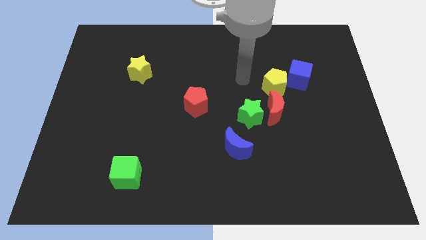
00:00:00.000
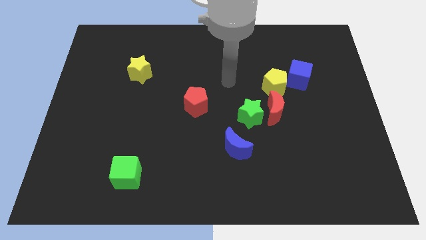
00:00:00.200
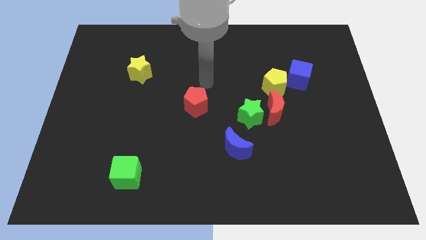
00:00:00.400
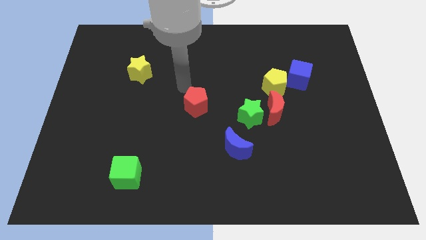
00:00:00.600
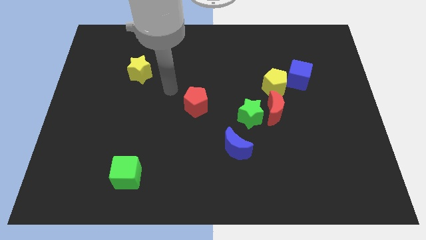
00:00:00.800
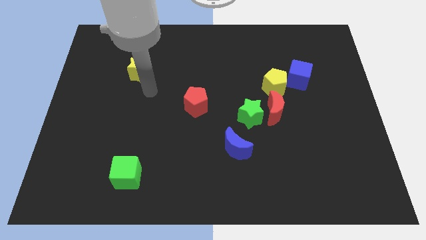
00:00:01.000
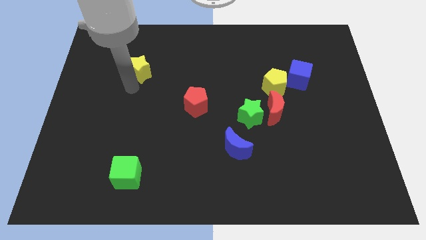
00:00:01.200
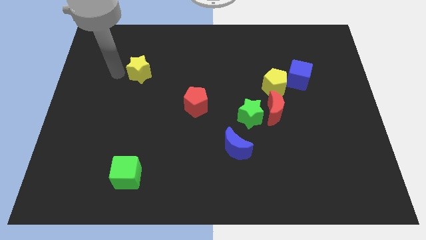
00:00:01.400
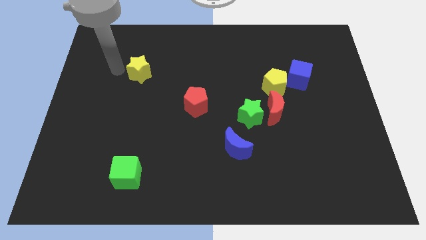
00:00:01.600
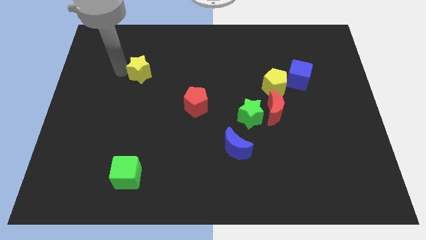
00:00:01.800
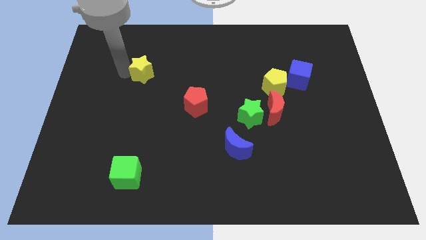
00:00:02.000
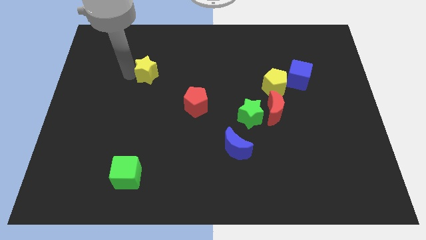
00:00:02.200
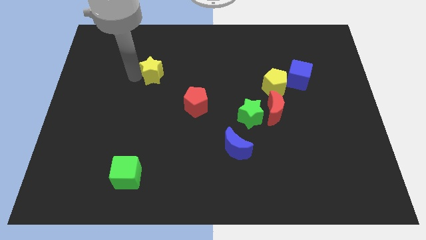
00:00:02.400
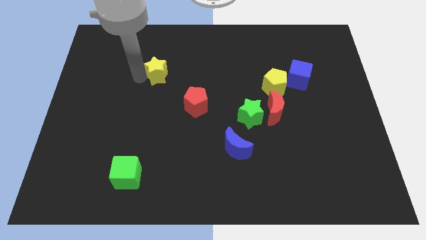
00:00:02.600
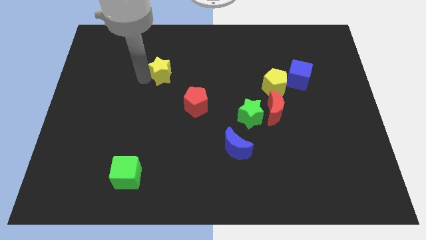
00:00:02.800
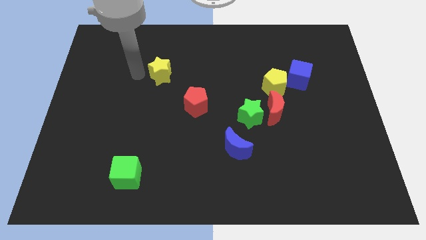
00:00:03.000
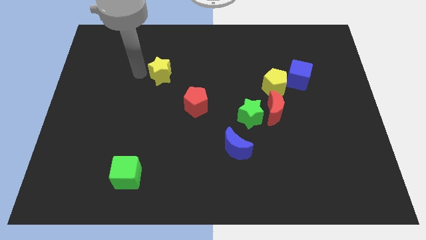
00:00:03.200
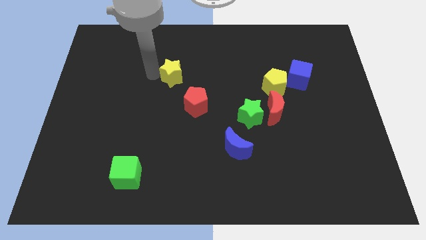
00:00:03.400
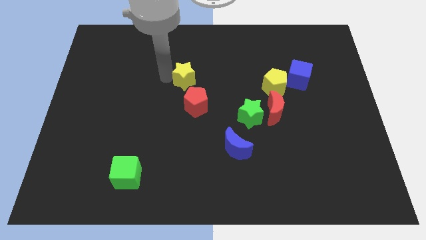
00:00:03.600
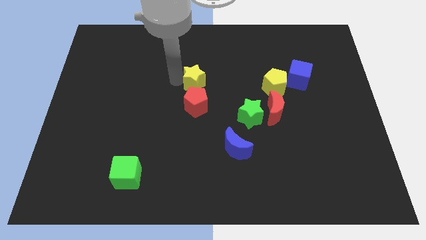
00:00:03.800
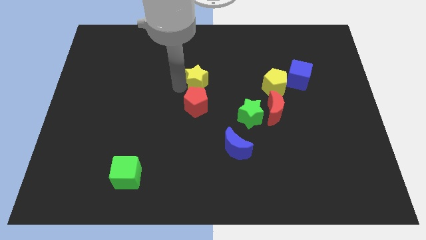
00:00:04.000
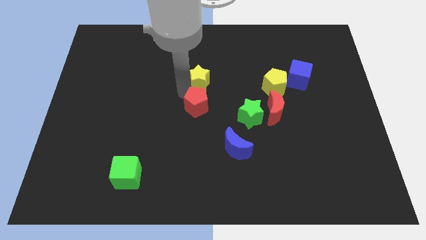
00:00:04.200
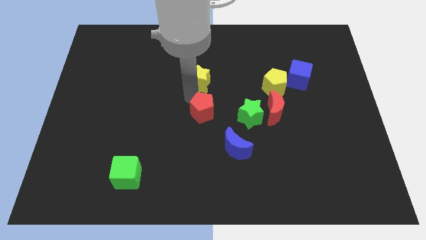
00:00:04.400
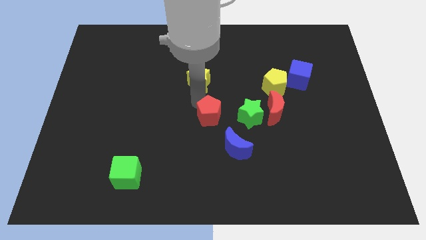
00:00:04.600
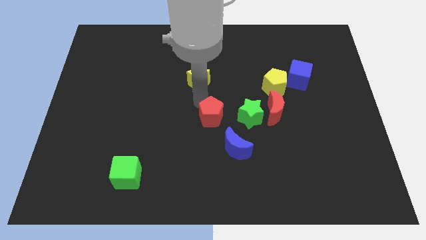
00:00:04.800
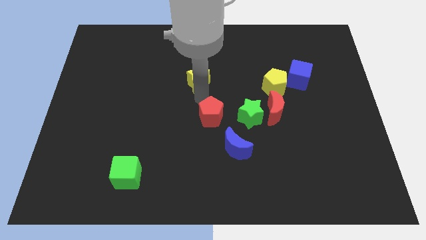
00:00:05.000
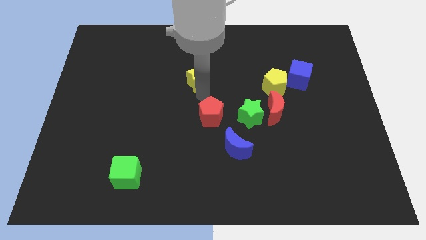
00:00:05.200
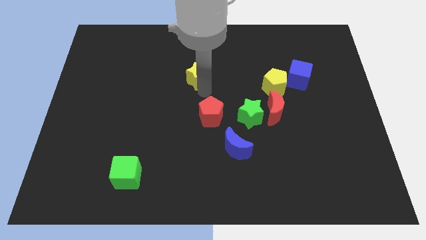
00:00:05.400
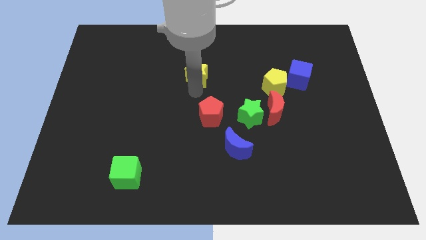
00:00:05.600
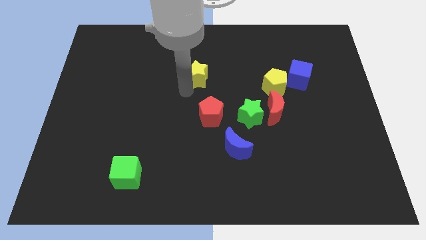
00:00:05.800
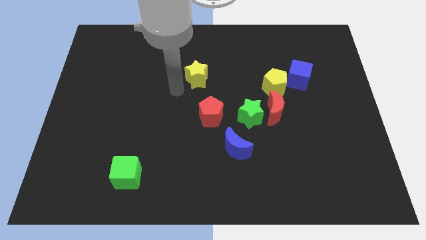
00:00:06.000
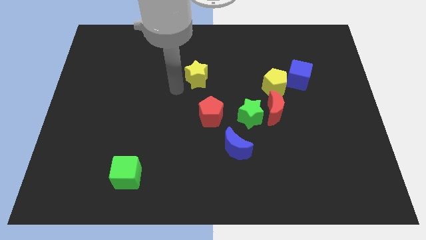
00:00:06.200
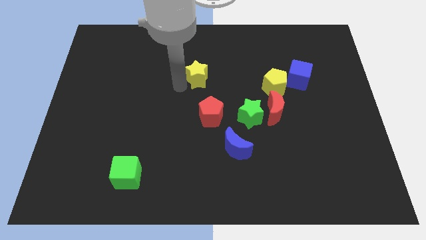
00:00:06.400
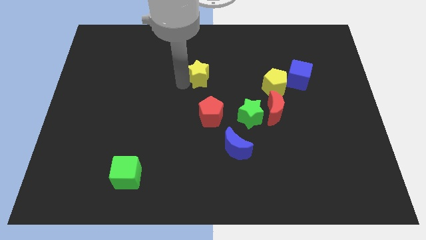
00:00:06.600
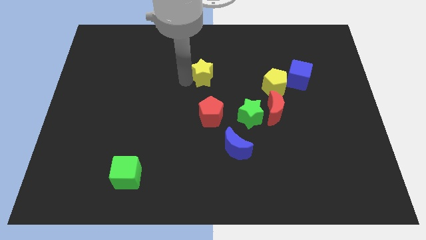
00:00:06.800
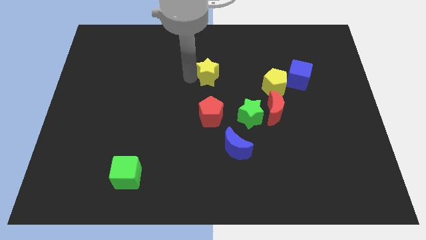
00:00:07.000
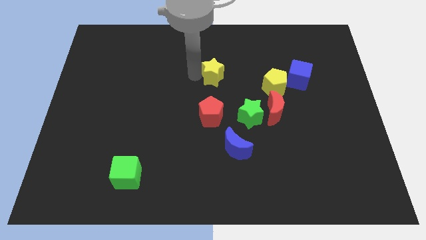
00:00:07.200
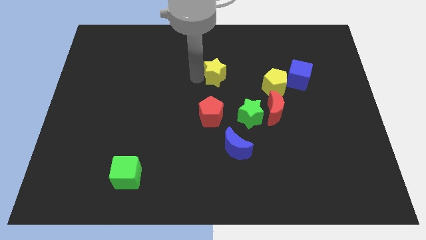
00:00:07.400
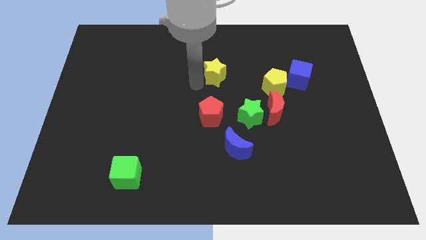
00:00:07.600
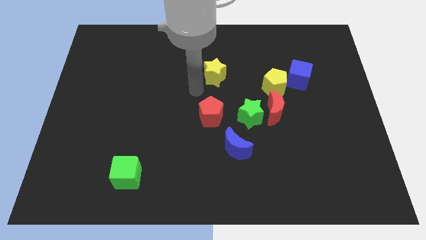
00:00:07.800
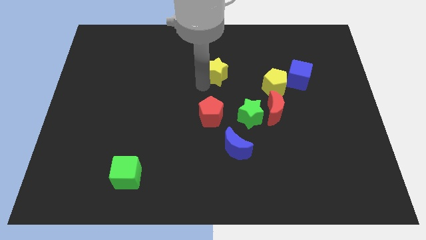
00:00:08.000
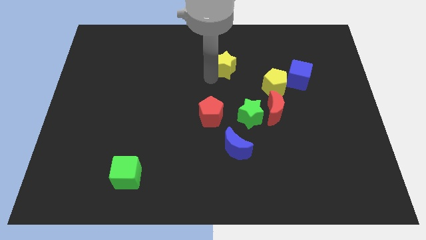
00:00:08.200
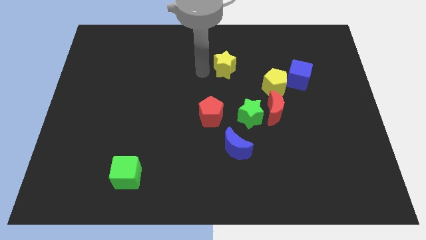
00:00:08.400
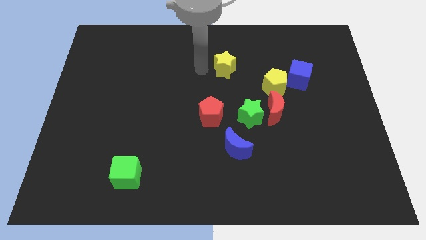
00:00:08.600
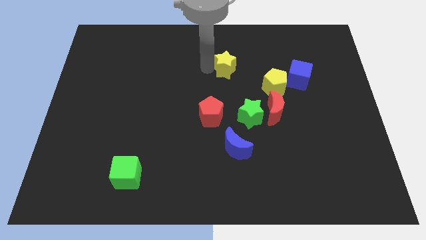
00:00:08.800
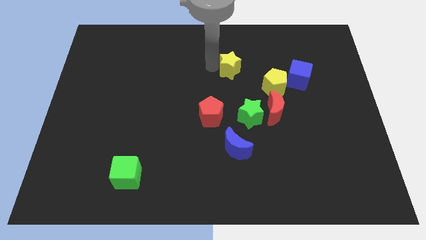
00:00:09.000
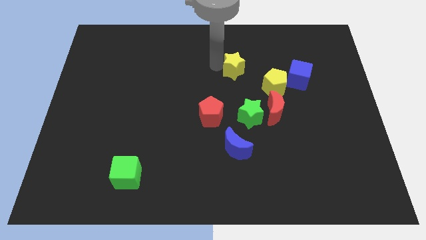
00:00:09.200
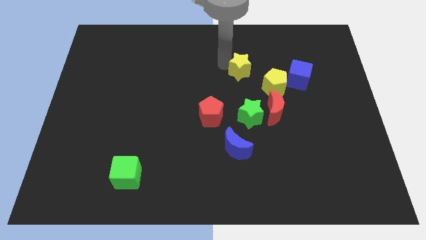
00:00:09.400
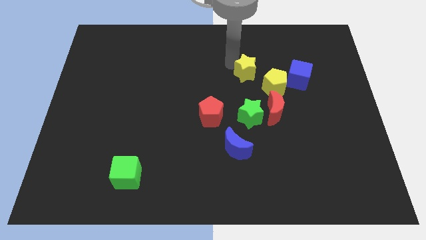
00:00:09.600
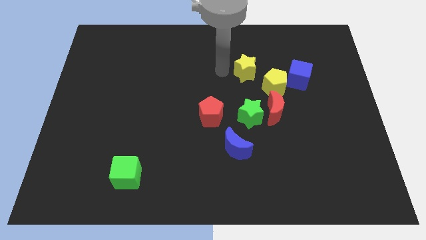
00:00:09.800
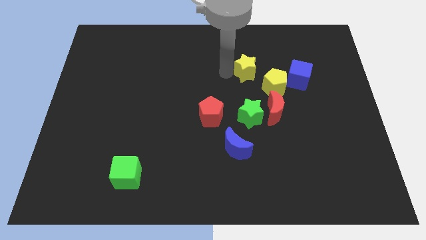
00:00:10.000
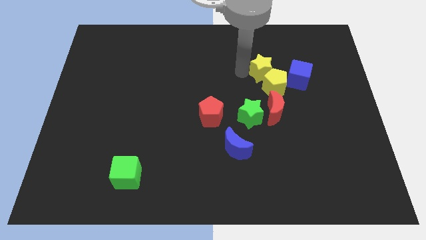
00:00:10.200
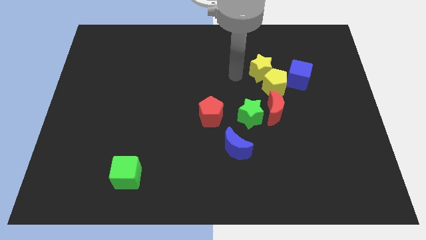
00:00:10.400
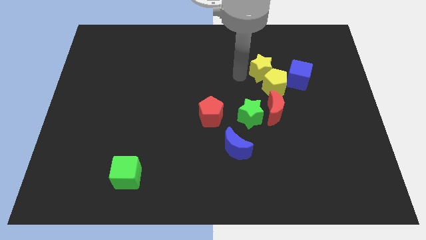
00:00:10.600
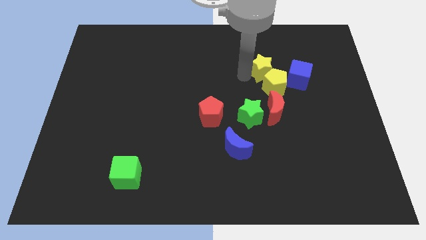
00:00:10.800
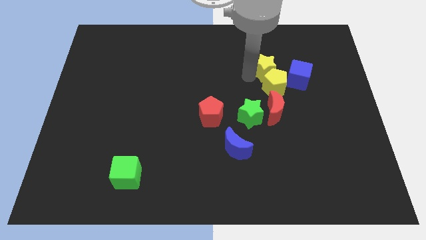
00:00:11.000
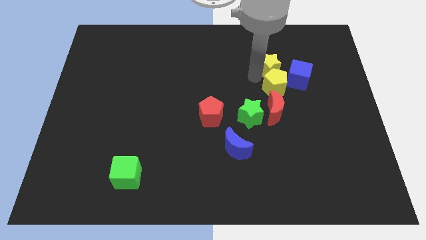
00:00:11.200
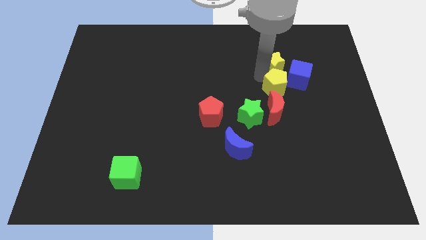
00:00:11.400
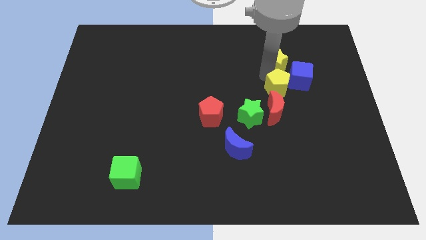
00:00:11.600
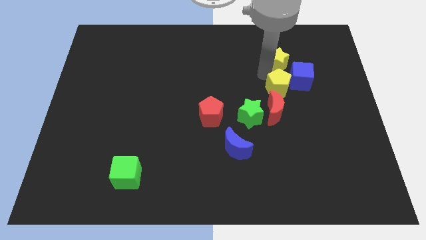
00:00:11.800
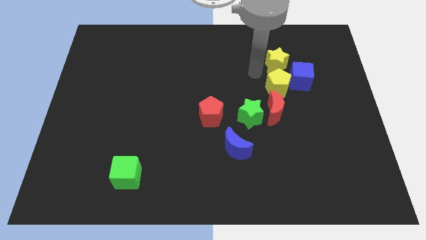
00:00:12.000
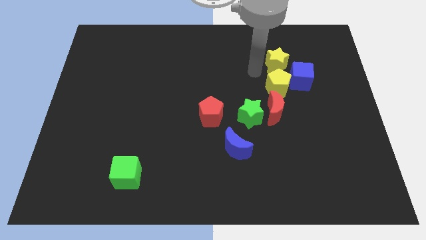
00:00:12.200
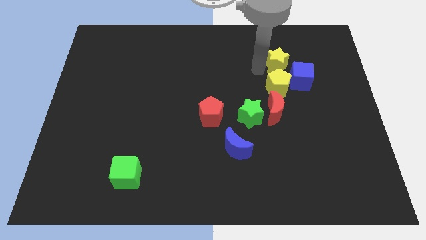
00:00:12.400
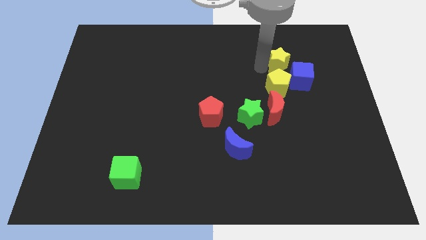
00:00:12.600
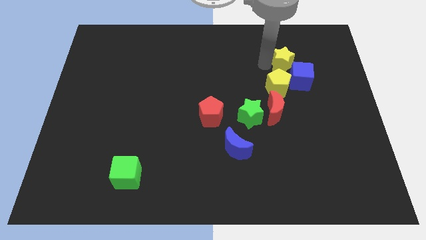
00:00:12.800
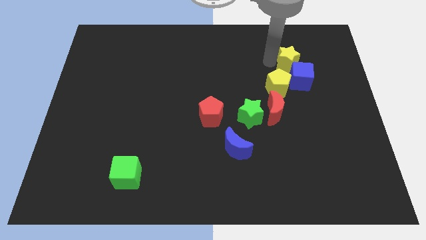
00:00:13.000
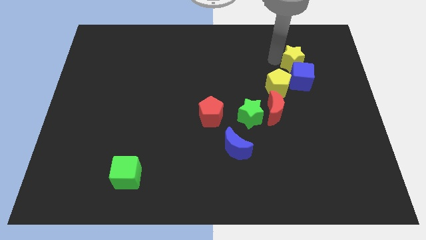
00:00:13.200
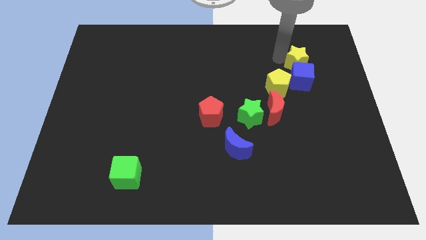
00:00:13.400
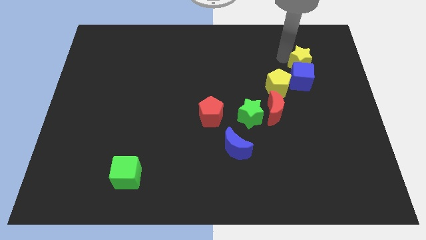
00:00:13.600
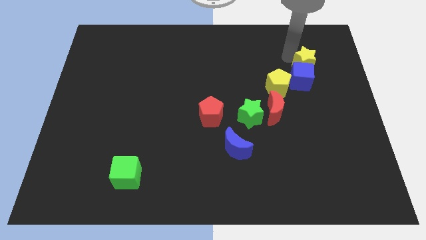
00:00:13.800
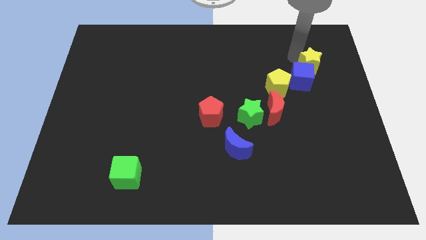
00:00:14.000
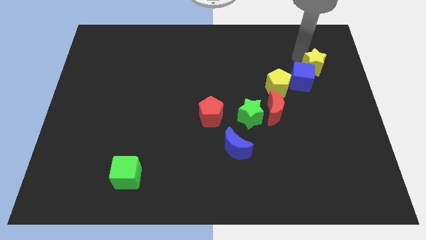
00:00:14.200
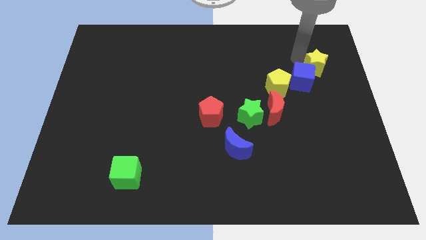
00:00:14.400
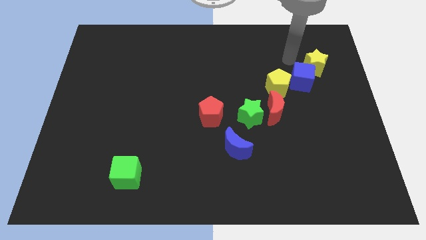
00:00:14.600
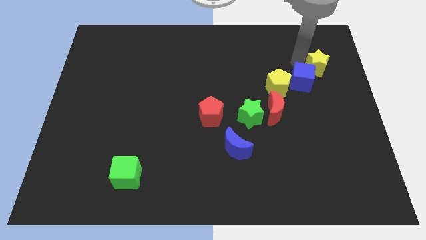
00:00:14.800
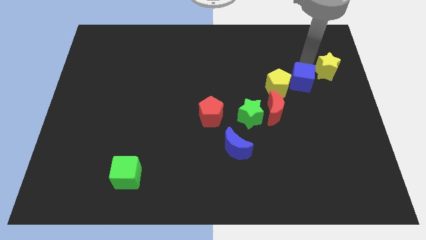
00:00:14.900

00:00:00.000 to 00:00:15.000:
push the yellow star to the center right

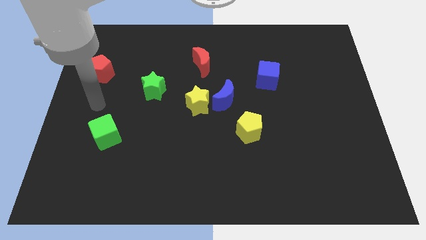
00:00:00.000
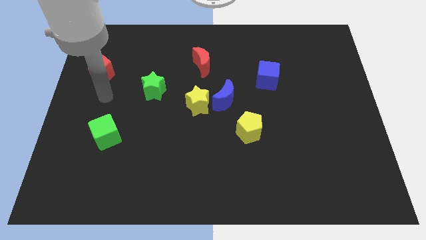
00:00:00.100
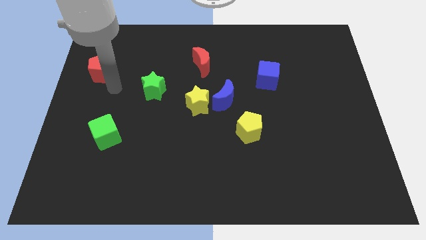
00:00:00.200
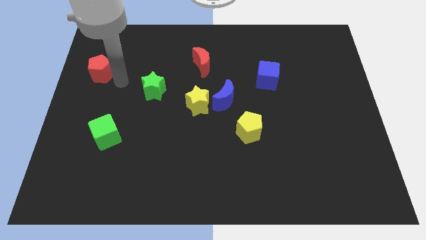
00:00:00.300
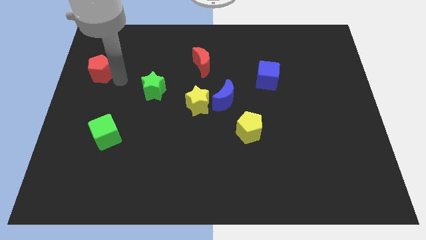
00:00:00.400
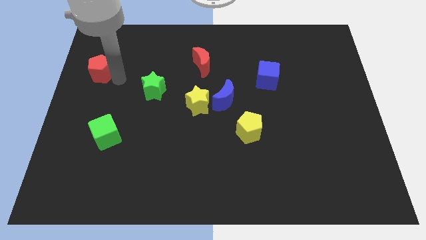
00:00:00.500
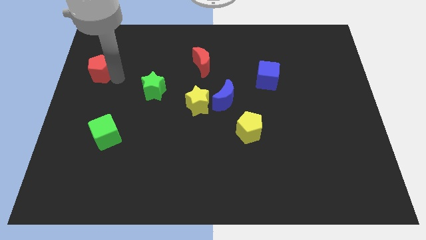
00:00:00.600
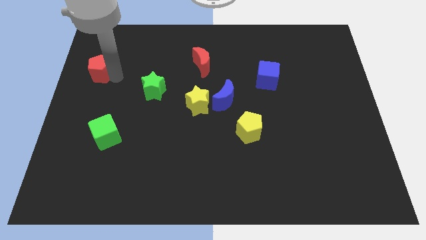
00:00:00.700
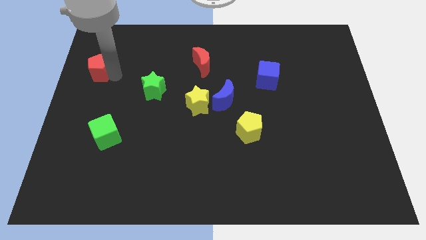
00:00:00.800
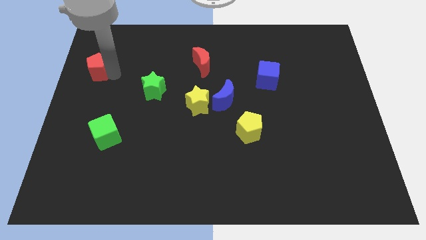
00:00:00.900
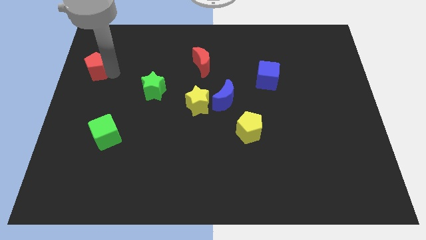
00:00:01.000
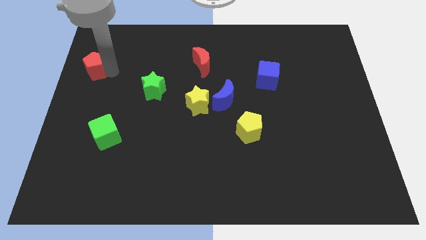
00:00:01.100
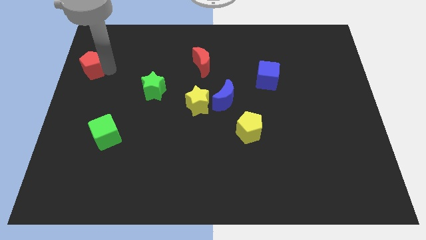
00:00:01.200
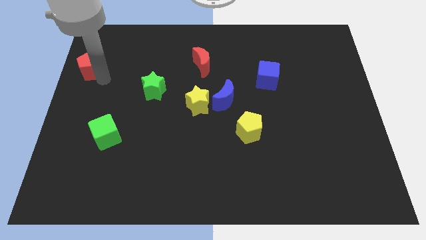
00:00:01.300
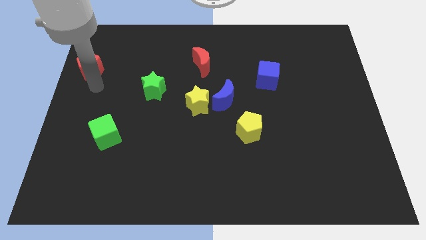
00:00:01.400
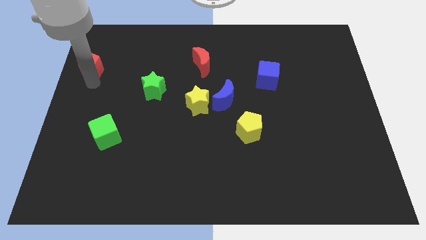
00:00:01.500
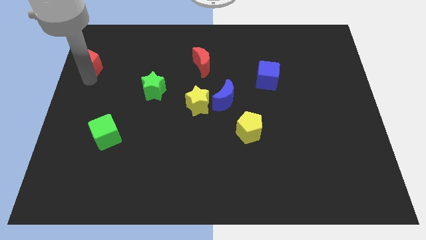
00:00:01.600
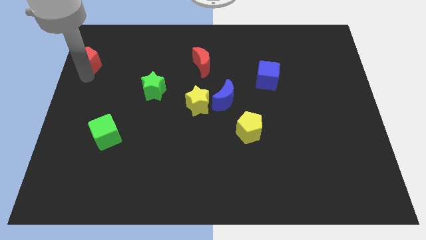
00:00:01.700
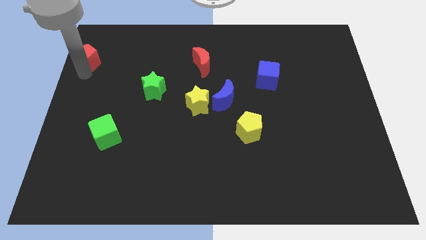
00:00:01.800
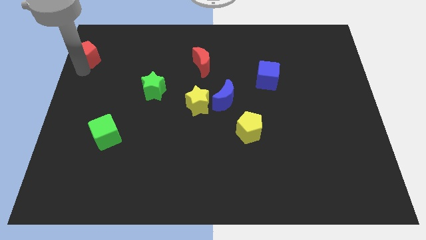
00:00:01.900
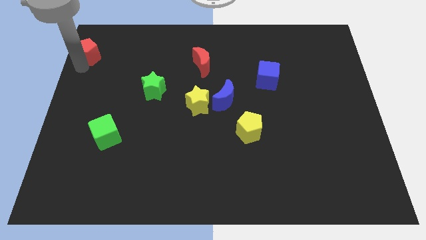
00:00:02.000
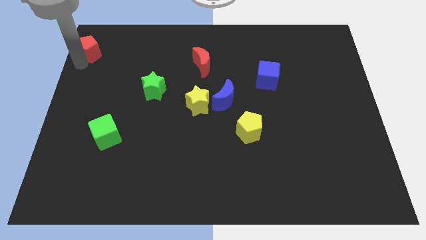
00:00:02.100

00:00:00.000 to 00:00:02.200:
slide the red pentagon to the upper left corner
